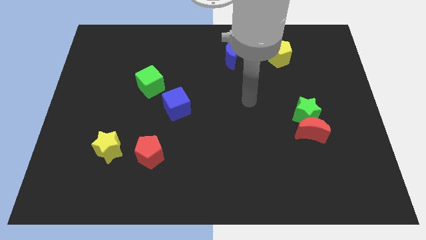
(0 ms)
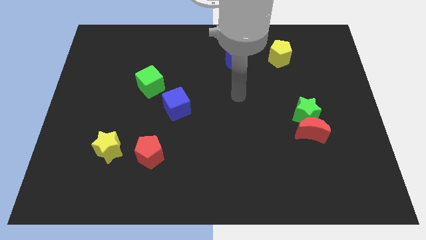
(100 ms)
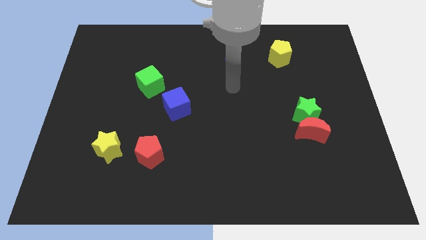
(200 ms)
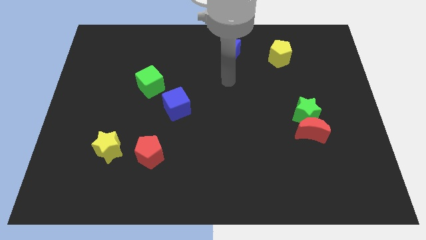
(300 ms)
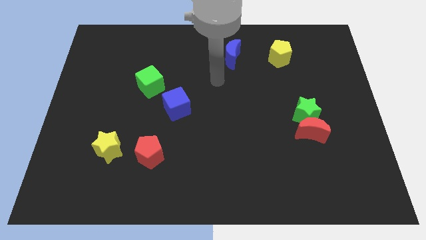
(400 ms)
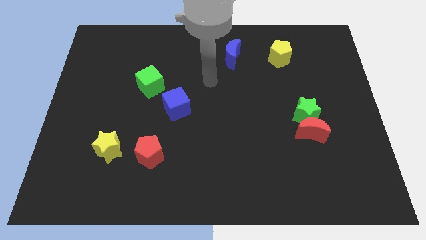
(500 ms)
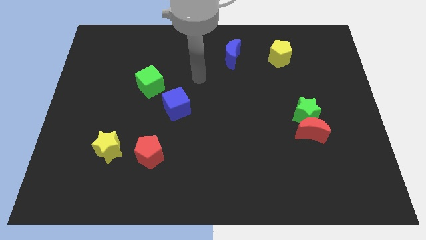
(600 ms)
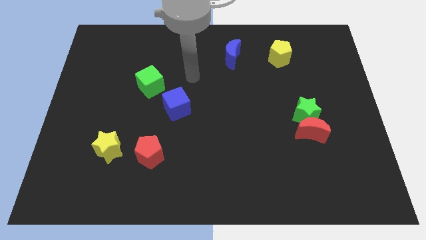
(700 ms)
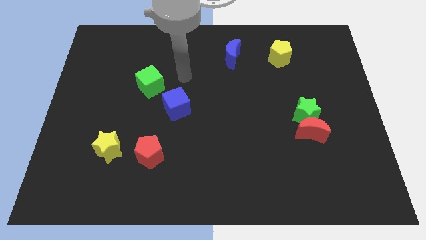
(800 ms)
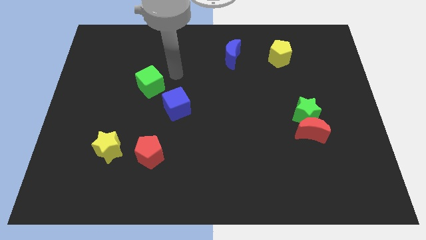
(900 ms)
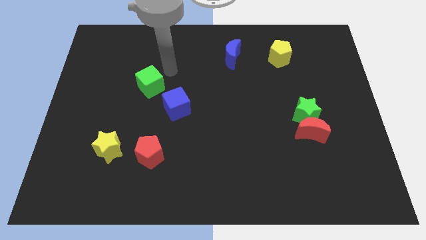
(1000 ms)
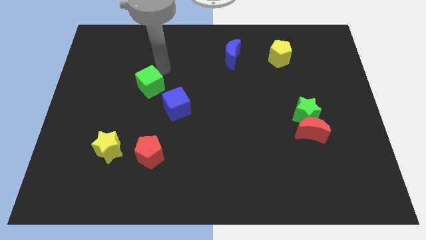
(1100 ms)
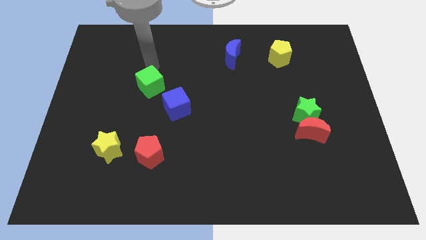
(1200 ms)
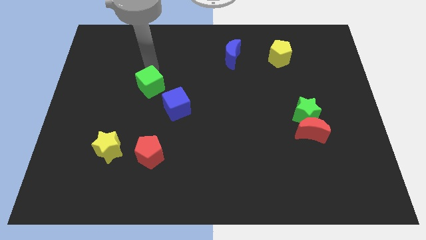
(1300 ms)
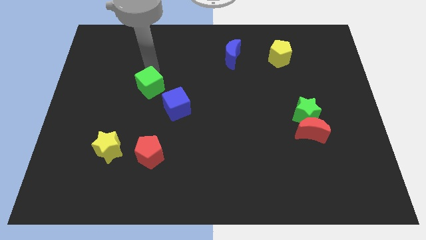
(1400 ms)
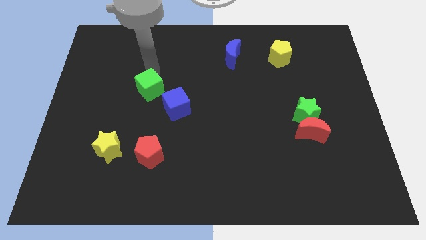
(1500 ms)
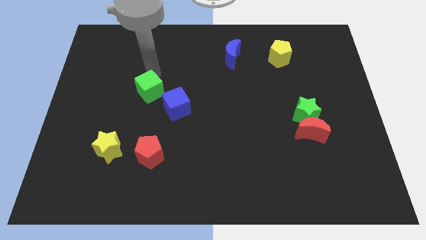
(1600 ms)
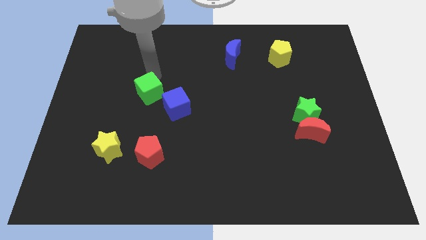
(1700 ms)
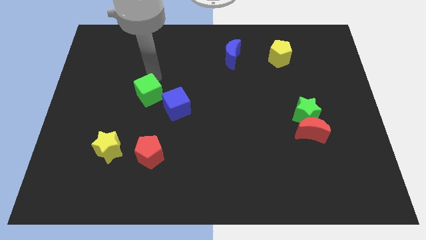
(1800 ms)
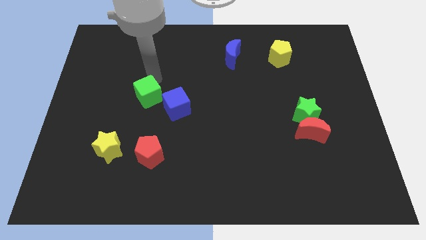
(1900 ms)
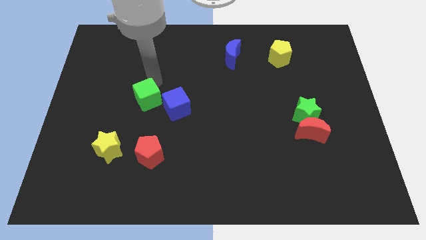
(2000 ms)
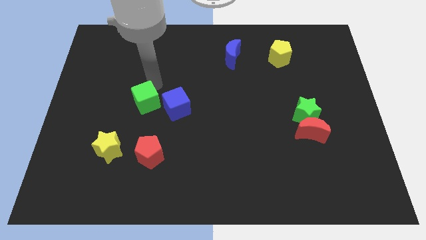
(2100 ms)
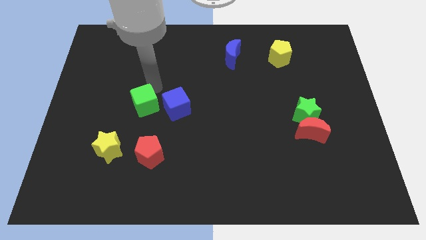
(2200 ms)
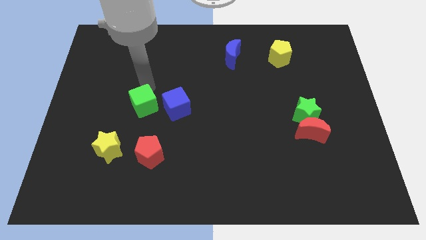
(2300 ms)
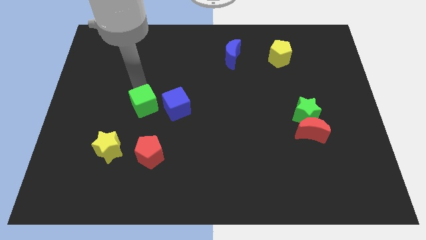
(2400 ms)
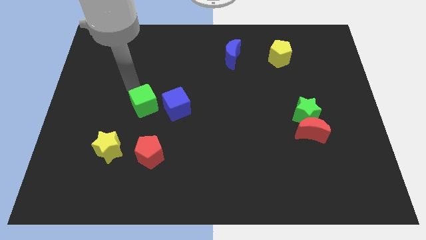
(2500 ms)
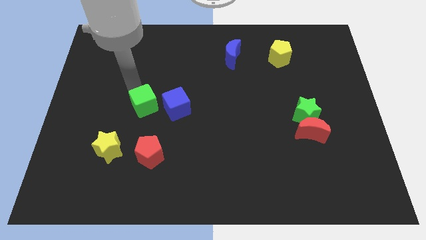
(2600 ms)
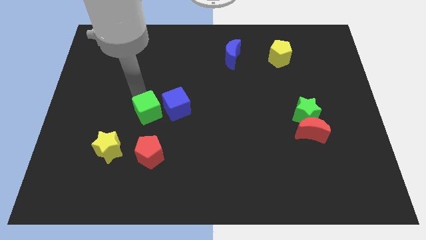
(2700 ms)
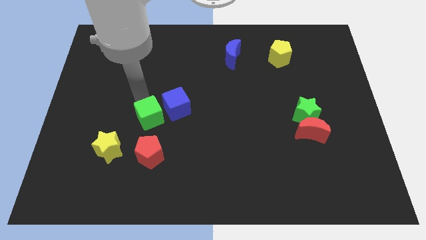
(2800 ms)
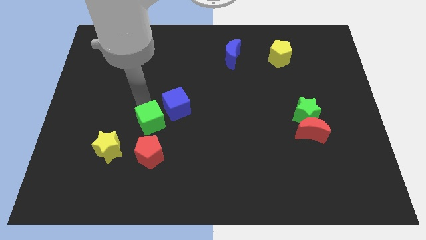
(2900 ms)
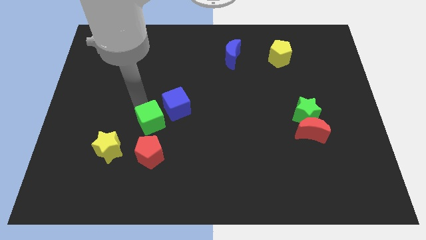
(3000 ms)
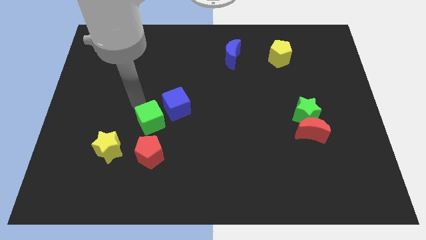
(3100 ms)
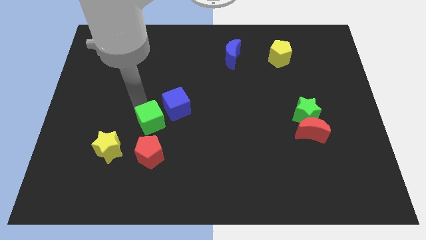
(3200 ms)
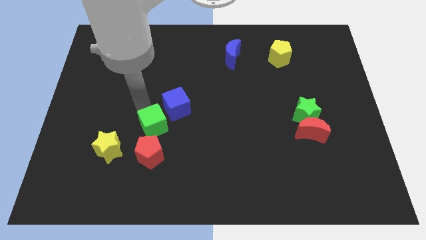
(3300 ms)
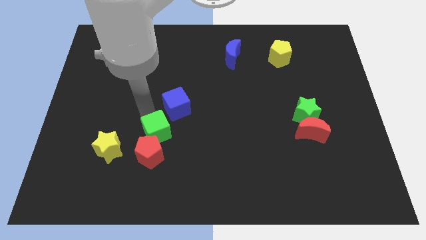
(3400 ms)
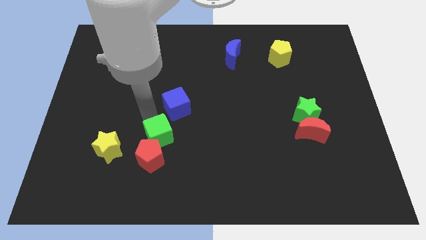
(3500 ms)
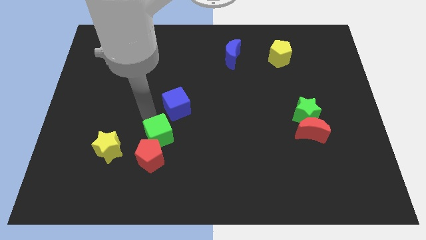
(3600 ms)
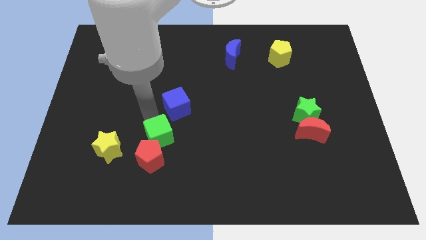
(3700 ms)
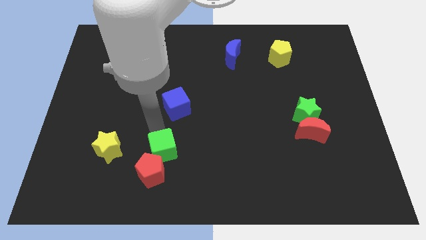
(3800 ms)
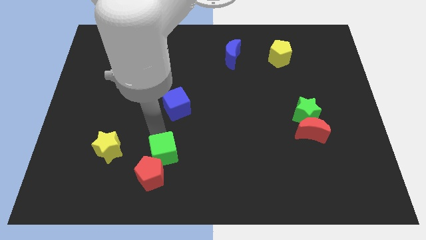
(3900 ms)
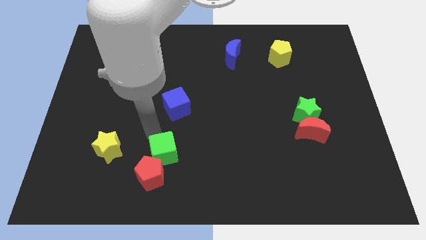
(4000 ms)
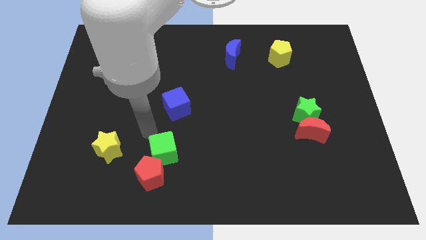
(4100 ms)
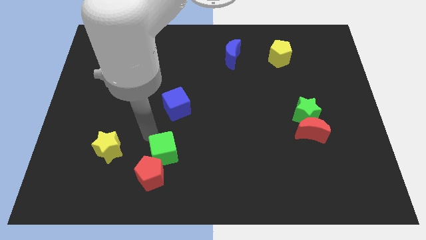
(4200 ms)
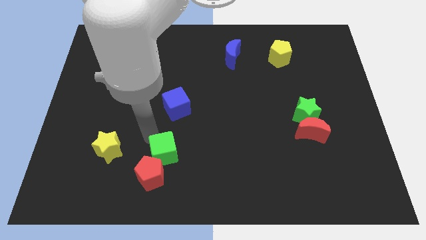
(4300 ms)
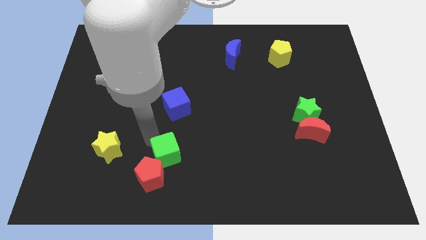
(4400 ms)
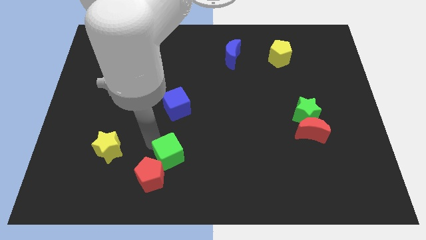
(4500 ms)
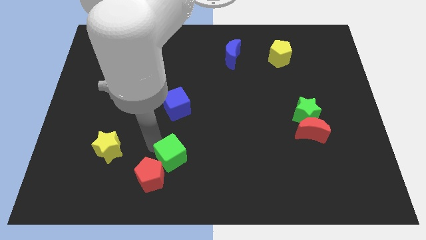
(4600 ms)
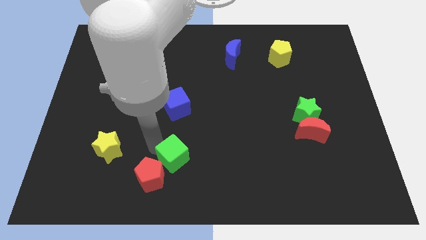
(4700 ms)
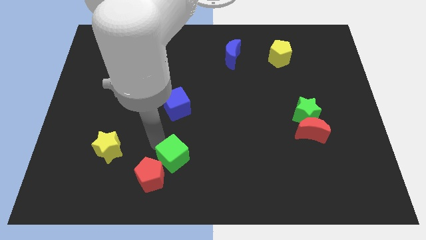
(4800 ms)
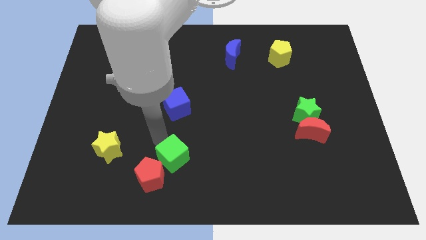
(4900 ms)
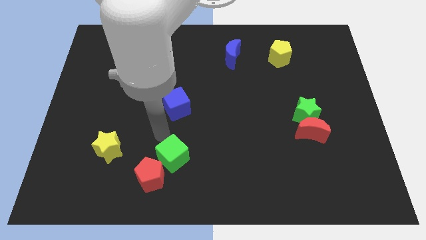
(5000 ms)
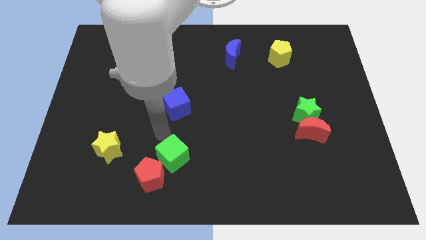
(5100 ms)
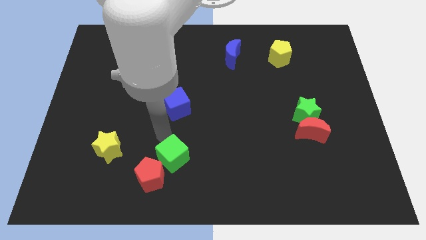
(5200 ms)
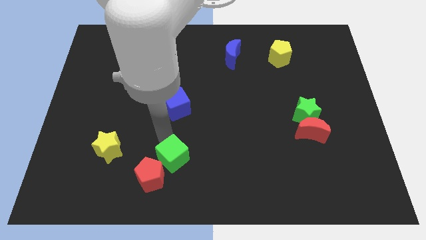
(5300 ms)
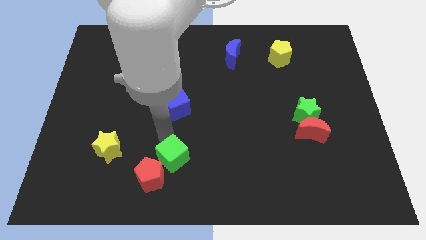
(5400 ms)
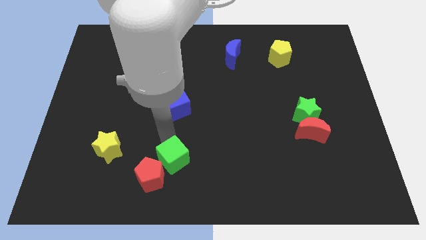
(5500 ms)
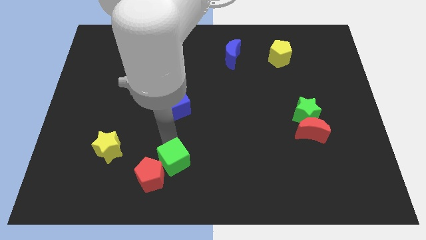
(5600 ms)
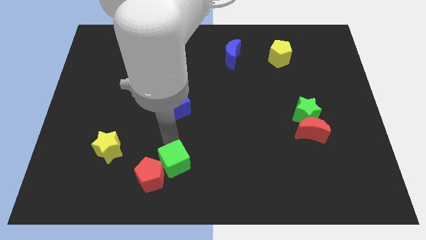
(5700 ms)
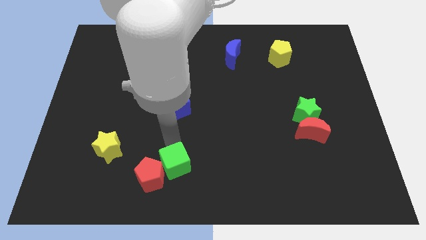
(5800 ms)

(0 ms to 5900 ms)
slide the green cube to the bottom side

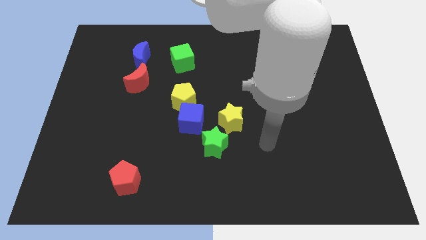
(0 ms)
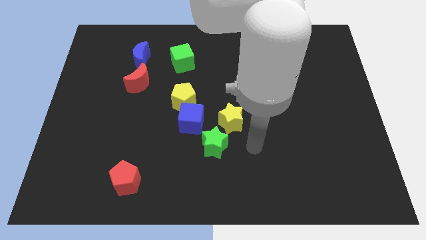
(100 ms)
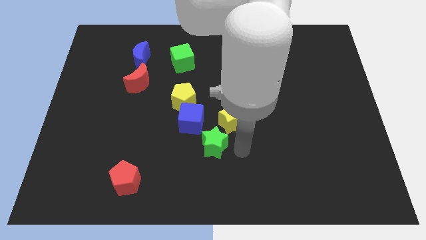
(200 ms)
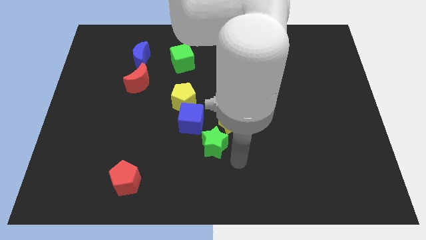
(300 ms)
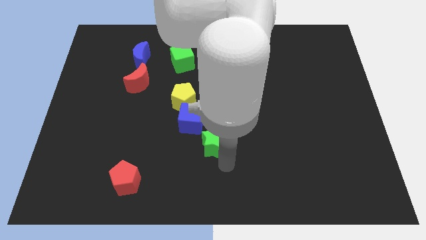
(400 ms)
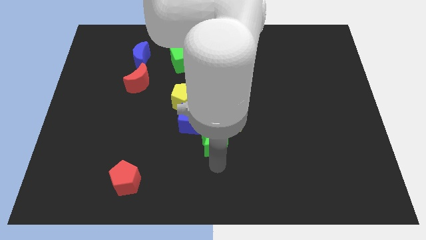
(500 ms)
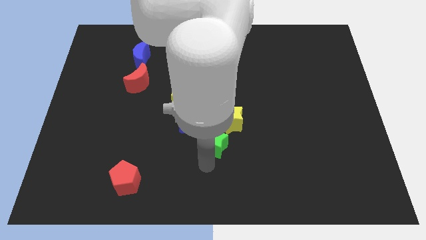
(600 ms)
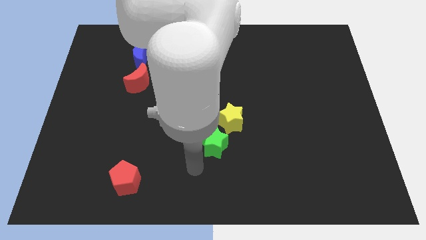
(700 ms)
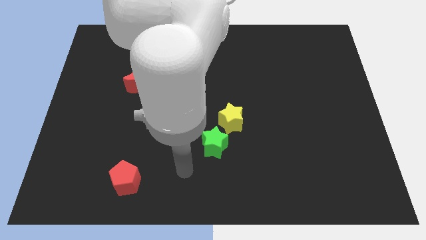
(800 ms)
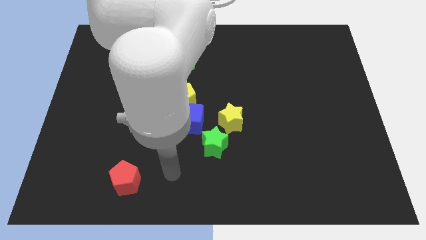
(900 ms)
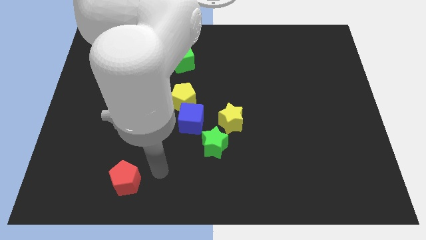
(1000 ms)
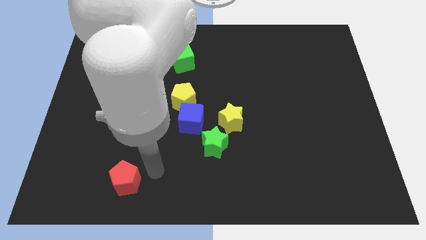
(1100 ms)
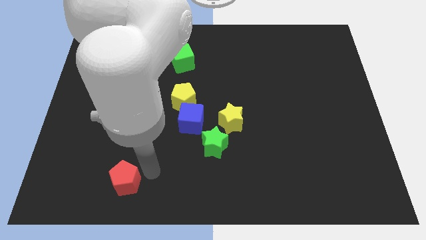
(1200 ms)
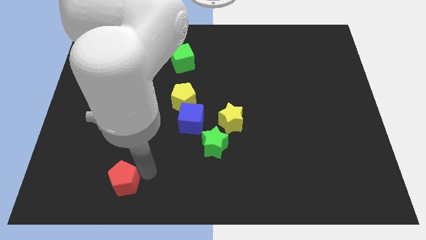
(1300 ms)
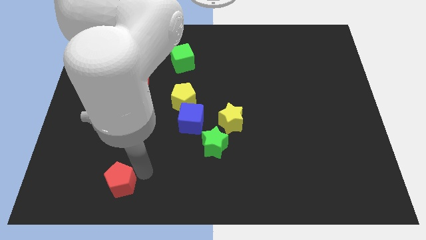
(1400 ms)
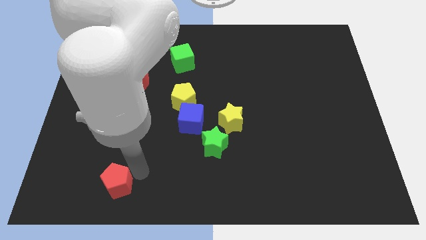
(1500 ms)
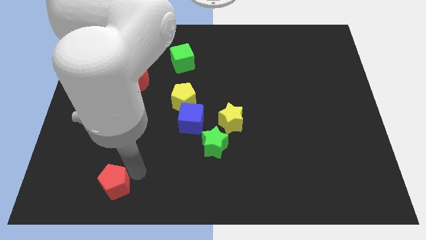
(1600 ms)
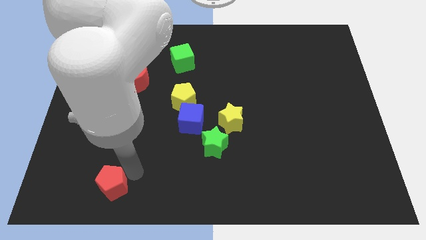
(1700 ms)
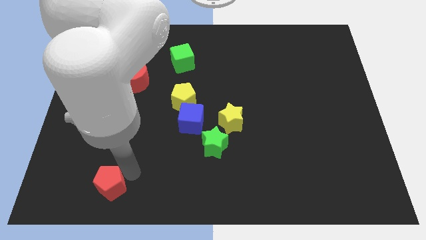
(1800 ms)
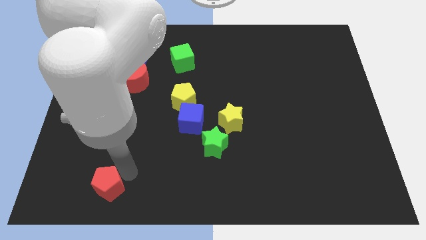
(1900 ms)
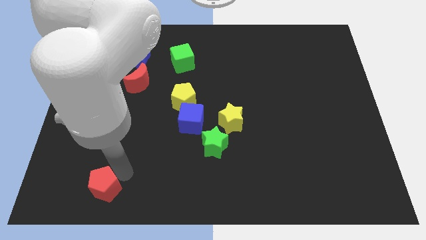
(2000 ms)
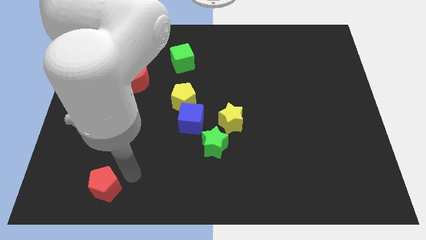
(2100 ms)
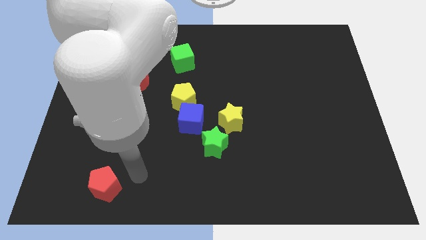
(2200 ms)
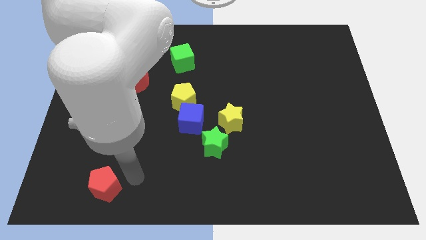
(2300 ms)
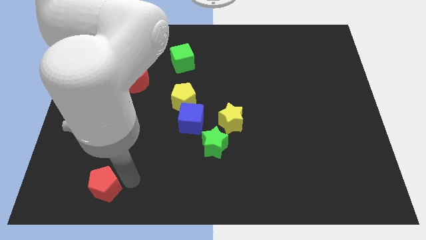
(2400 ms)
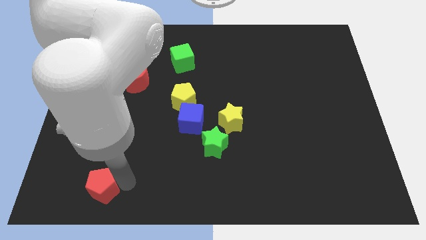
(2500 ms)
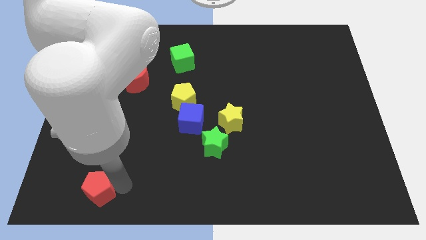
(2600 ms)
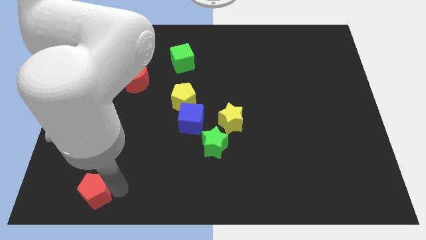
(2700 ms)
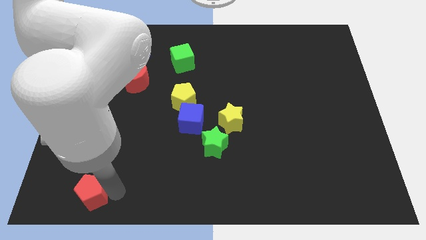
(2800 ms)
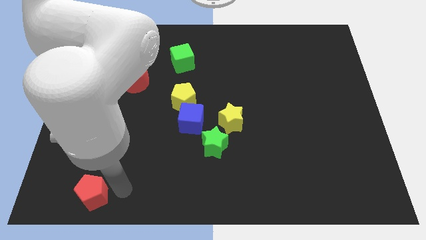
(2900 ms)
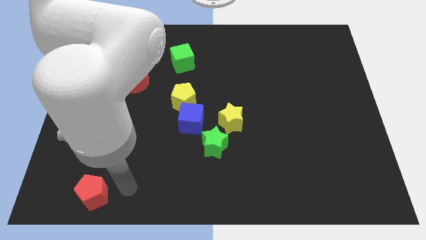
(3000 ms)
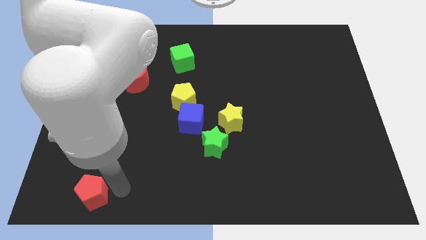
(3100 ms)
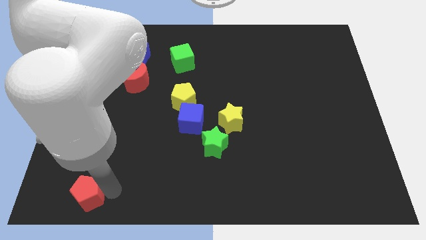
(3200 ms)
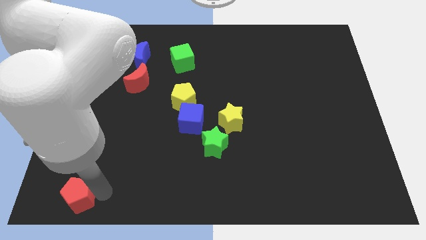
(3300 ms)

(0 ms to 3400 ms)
push the red pentagon to the bottom left
